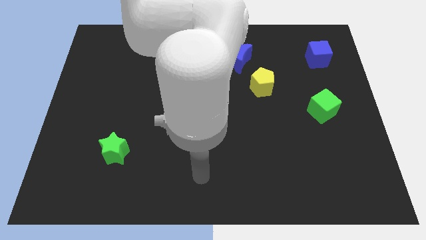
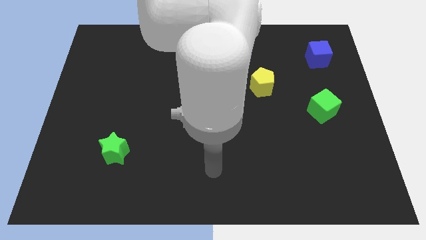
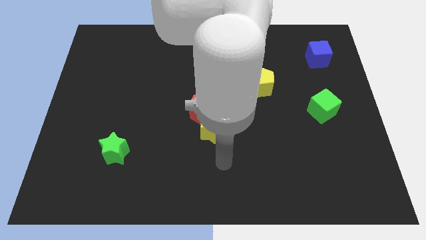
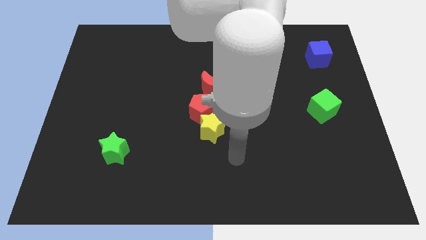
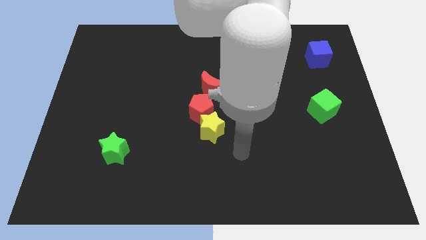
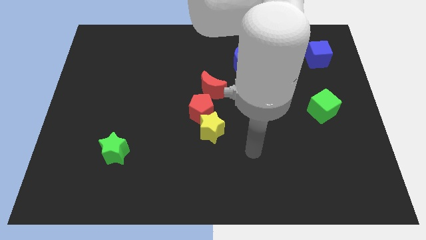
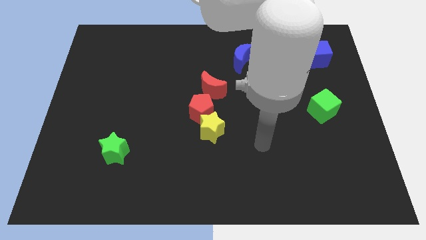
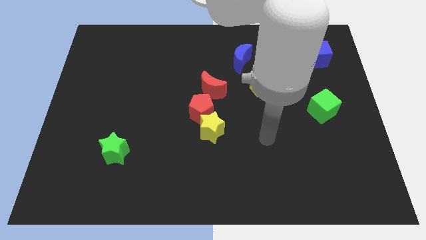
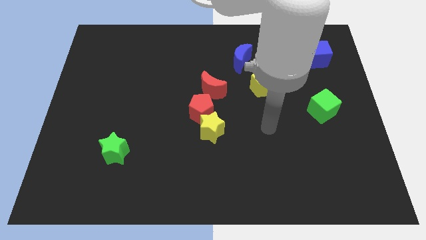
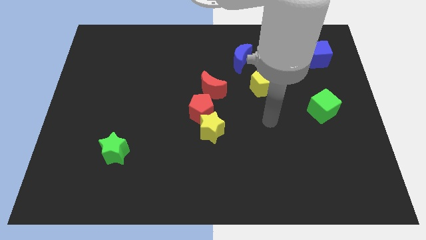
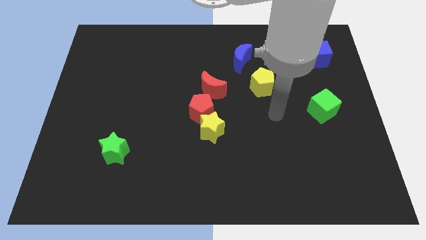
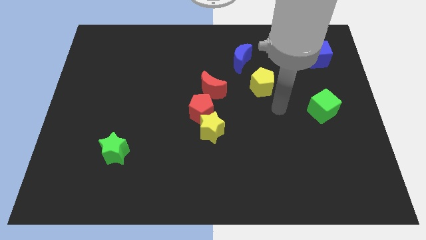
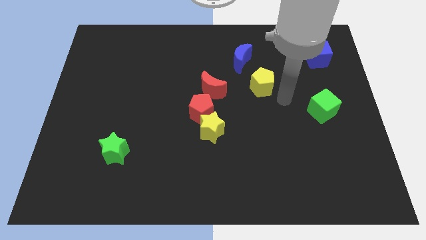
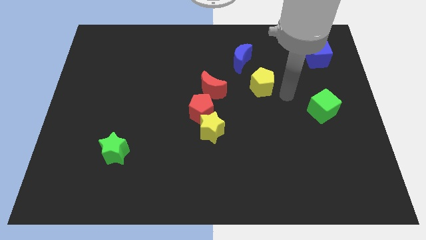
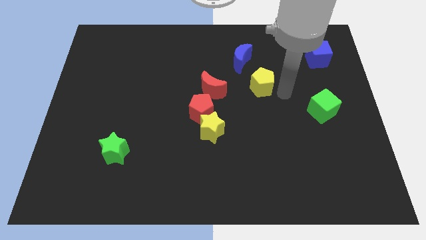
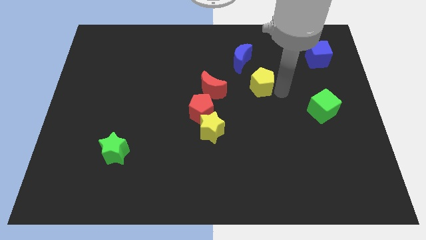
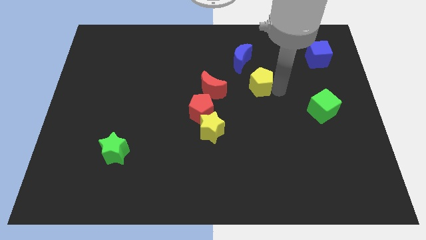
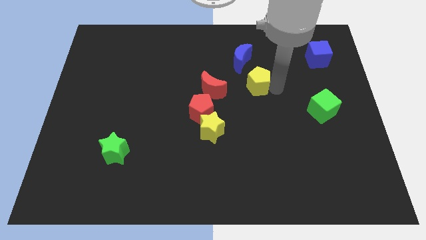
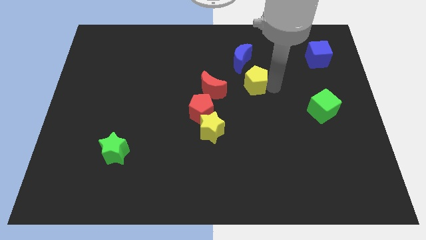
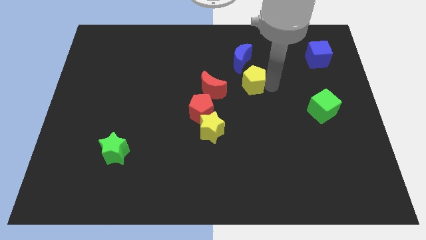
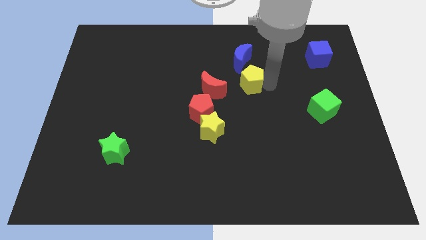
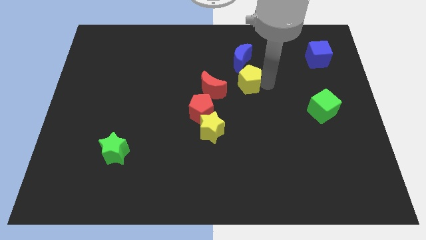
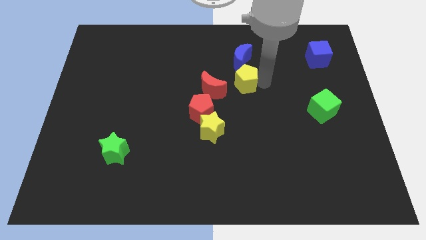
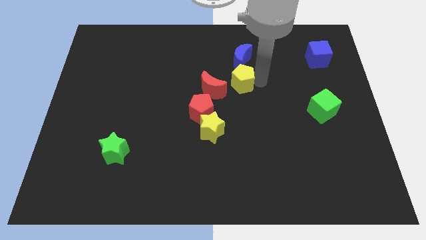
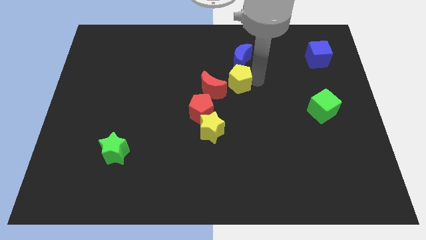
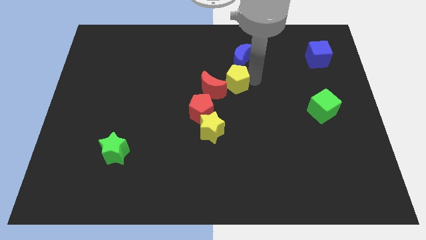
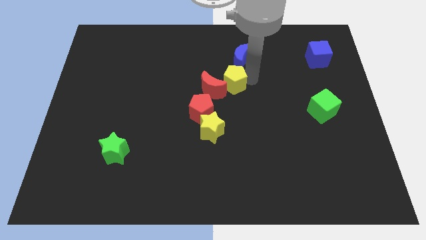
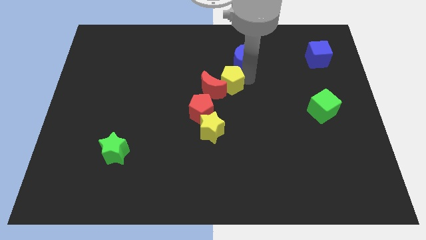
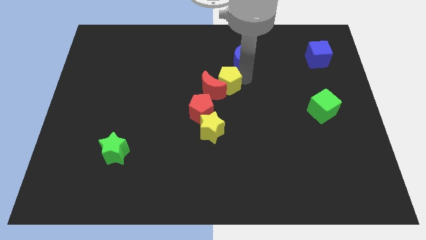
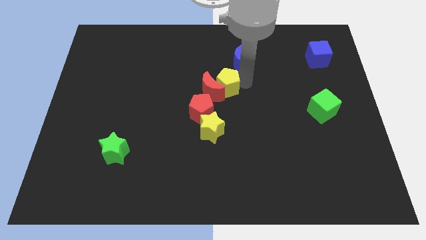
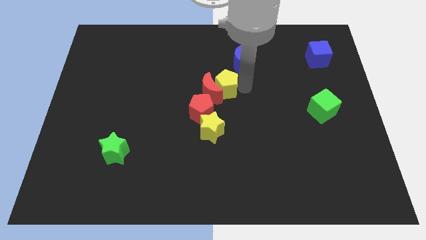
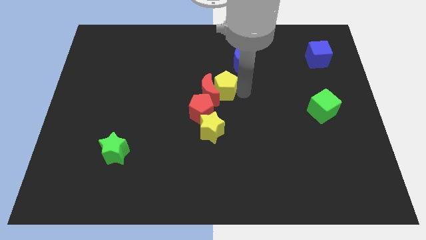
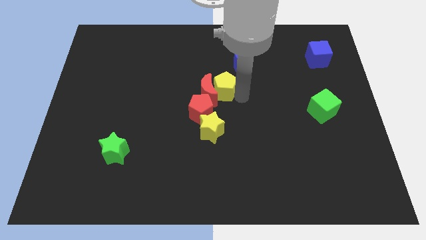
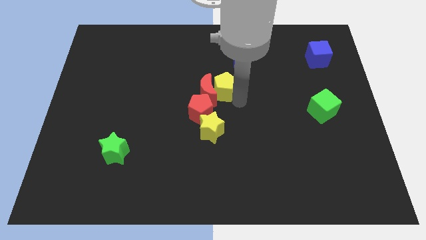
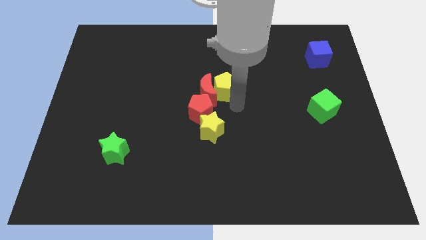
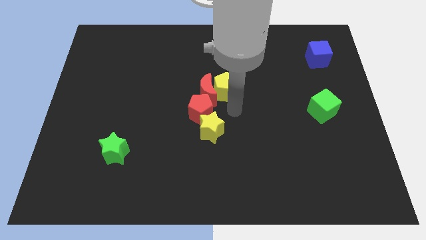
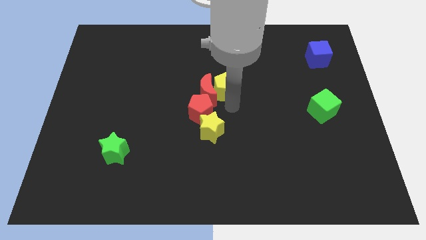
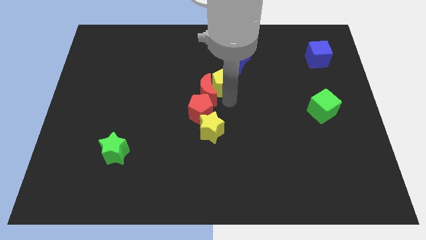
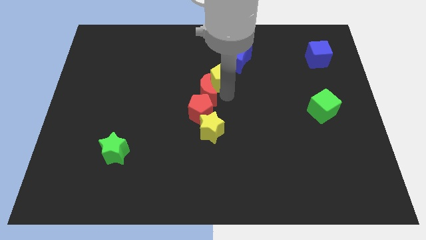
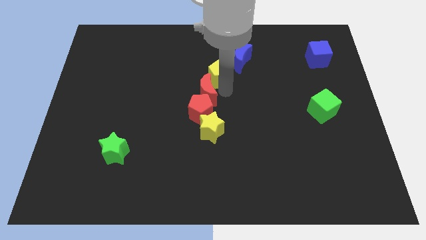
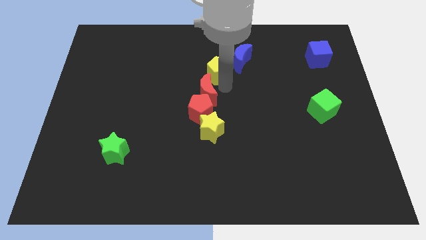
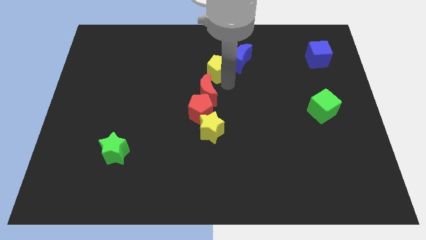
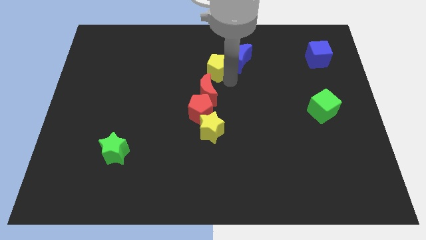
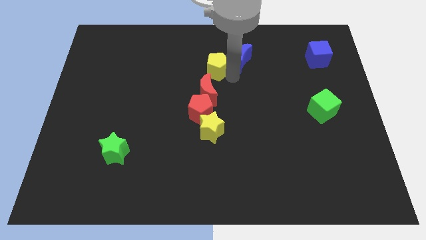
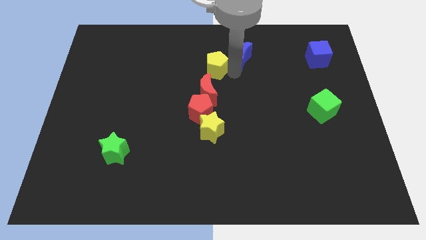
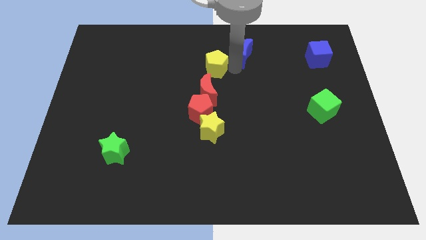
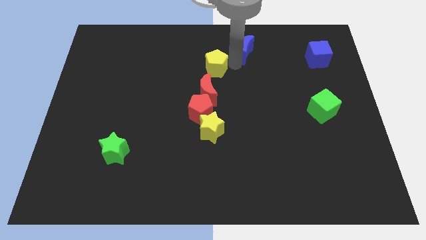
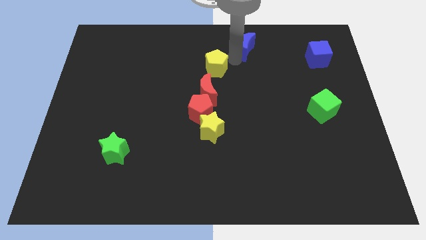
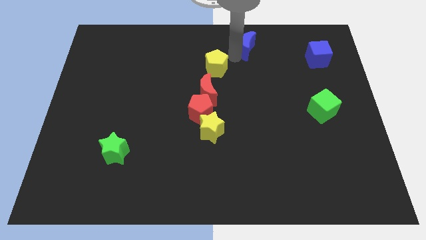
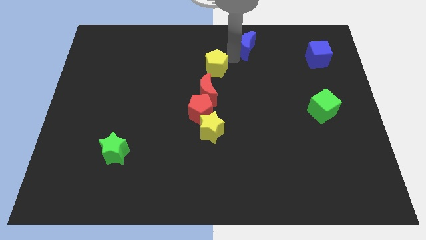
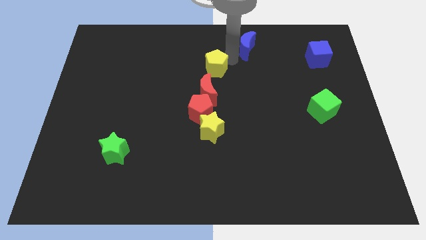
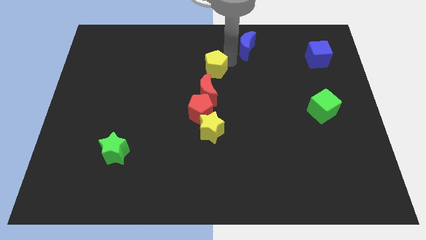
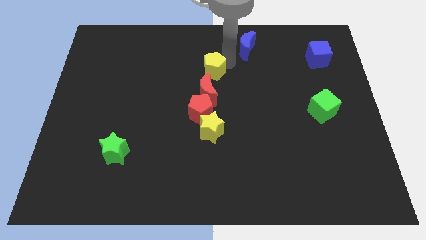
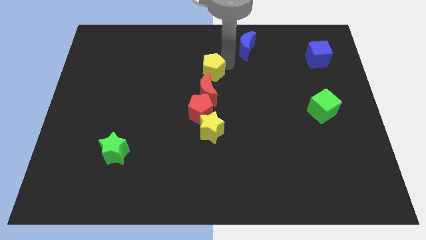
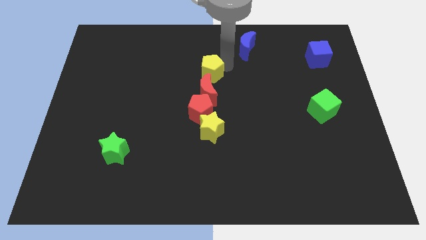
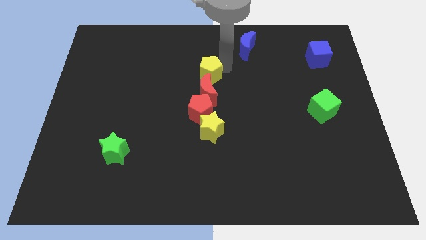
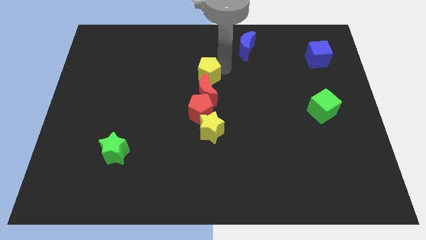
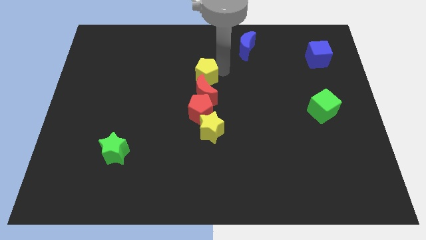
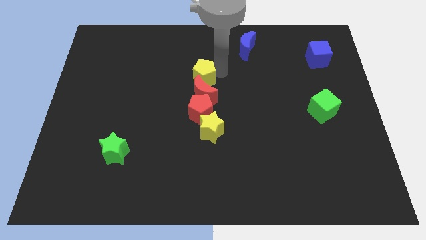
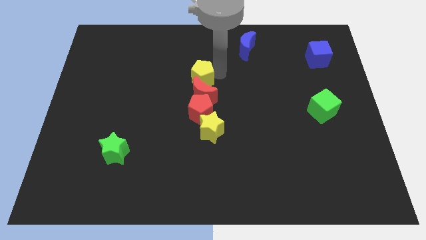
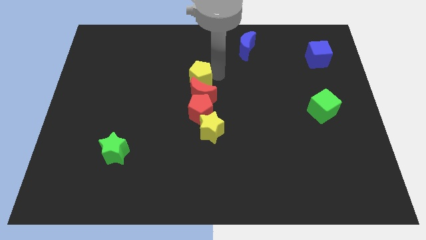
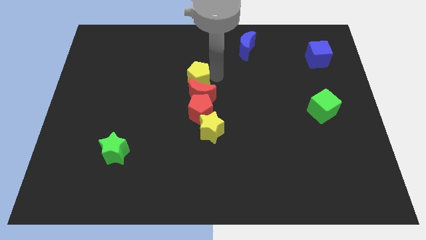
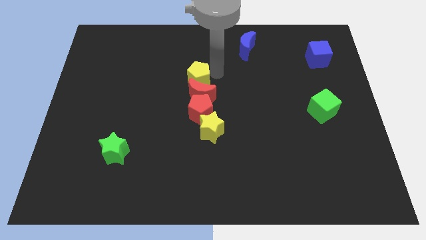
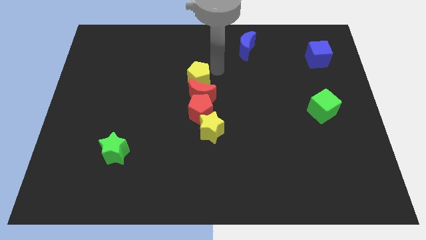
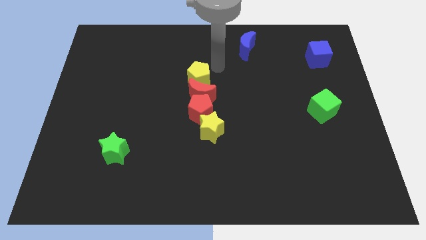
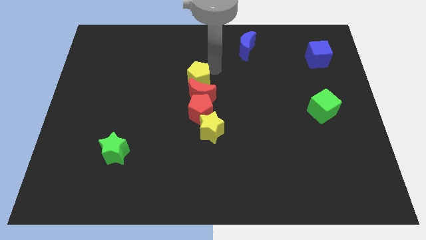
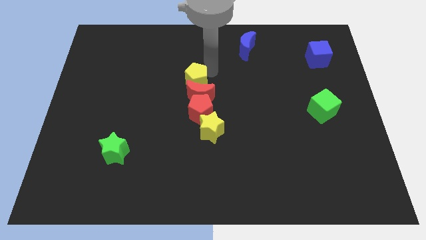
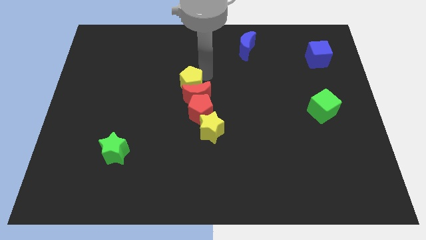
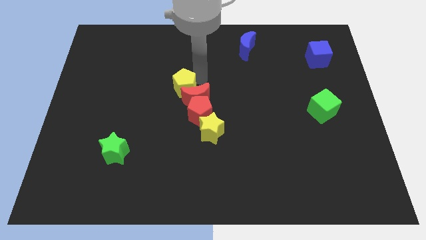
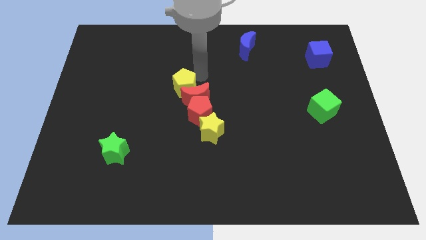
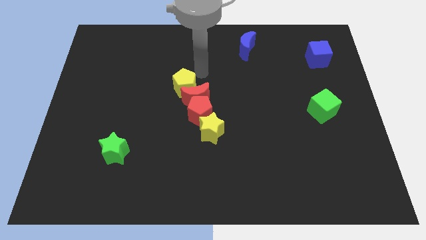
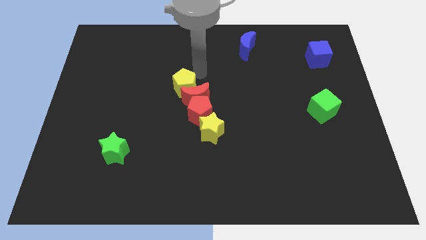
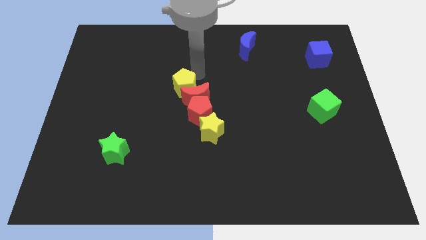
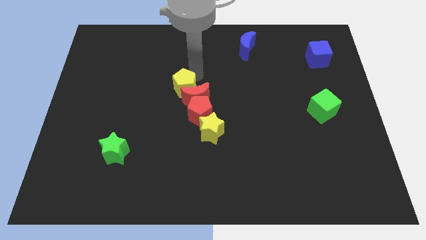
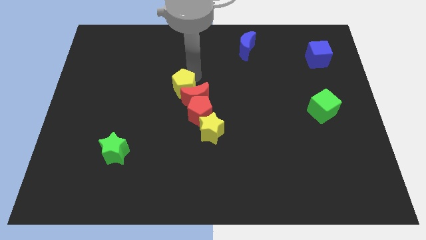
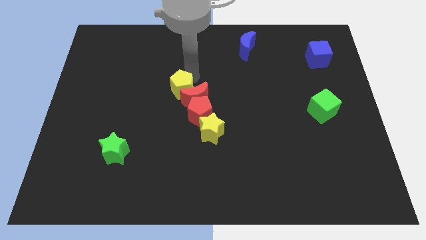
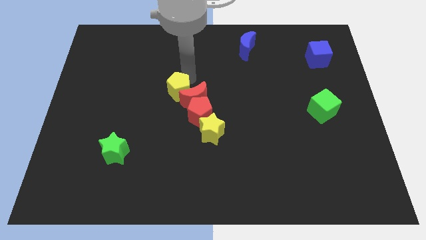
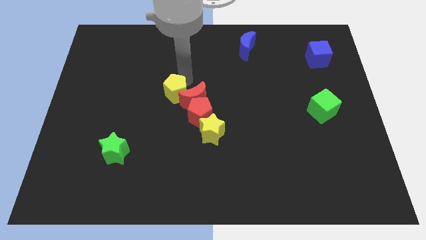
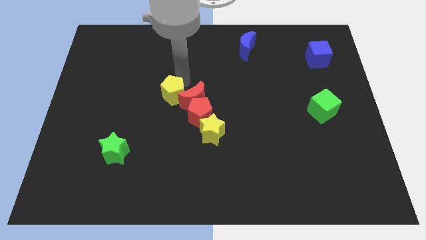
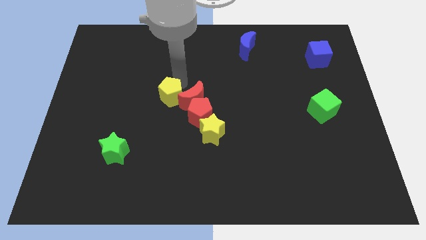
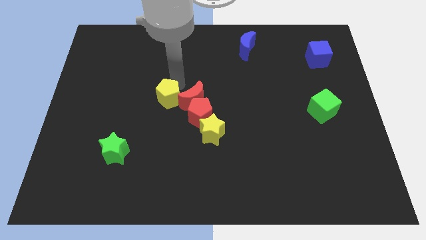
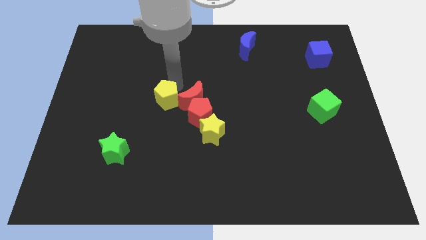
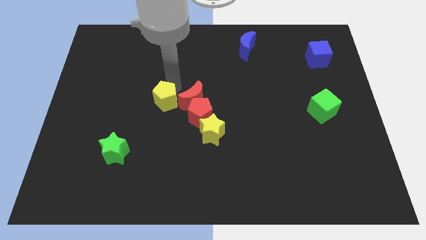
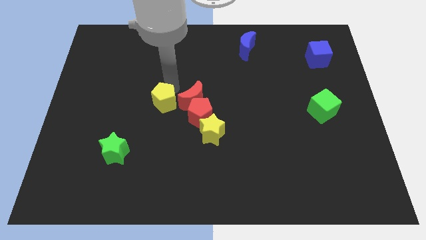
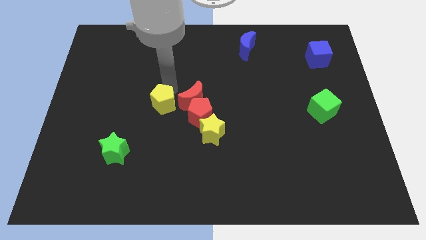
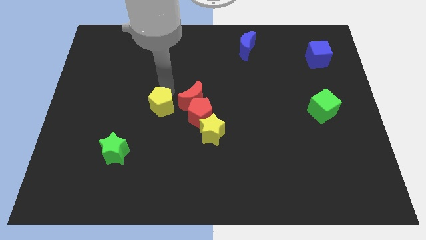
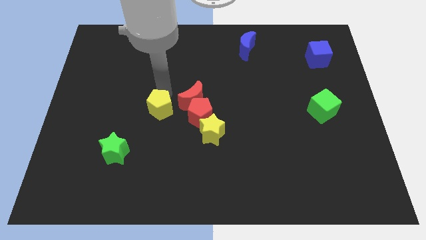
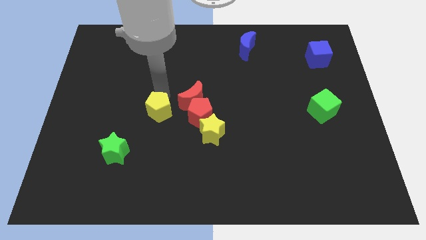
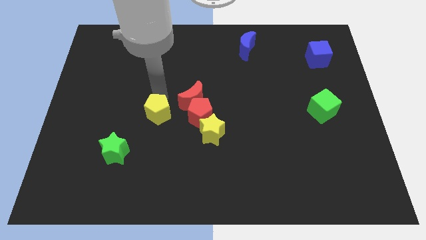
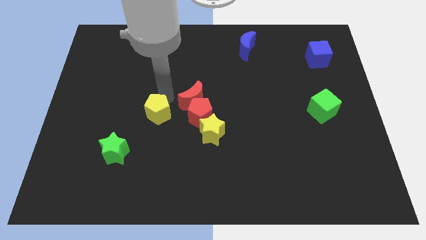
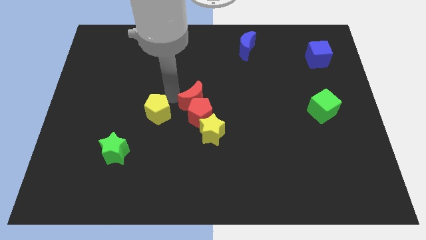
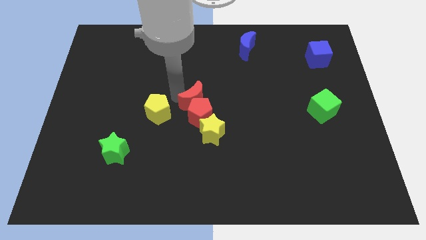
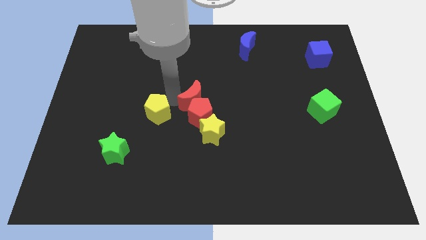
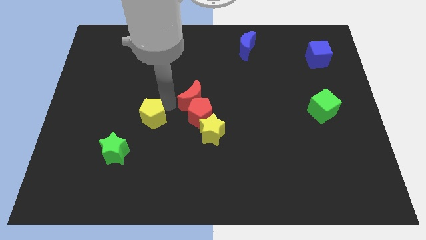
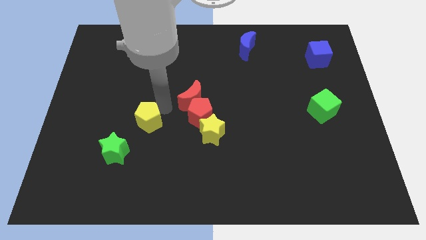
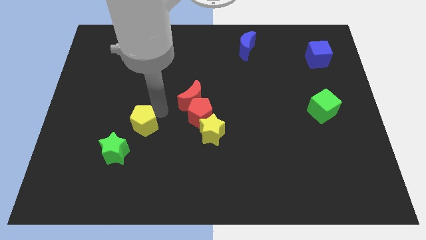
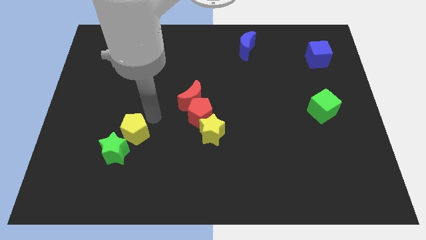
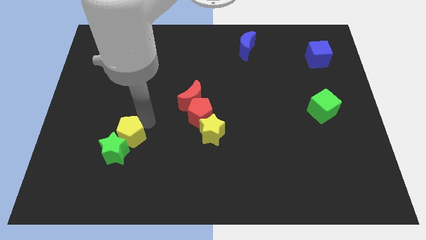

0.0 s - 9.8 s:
put the yellow pentagon close to the green star
